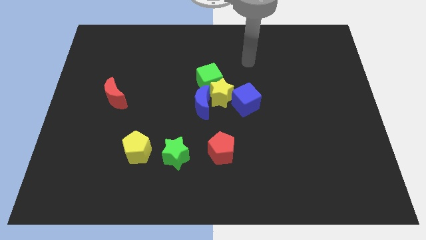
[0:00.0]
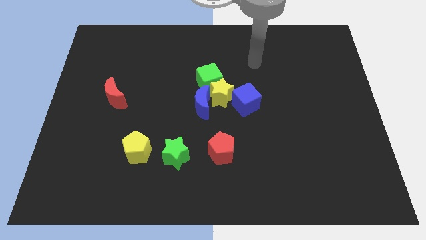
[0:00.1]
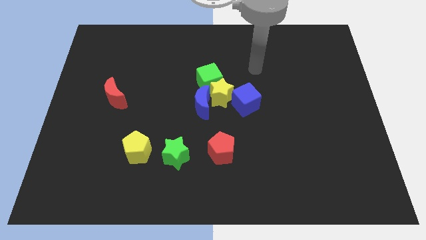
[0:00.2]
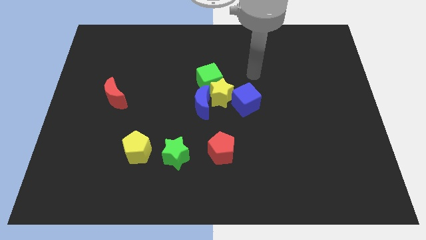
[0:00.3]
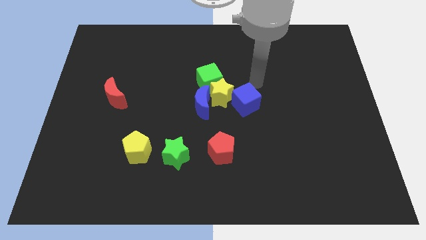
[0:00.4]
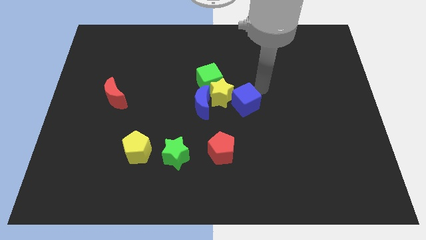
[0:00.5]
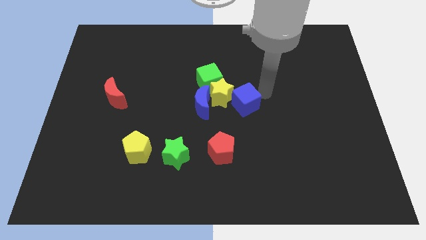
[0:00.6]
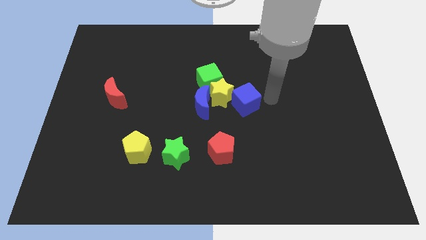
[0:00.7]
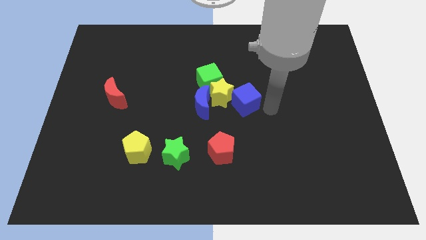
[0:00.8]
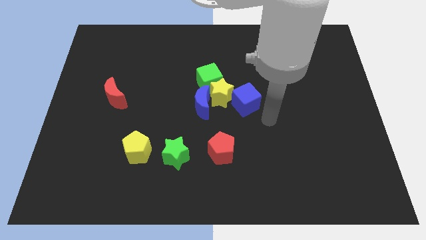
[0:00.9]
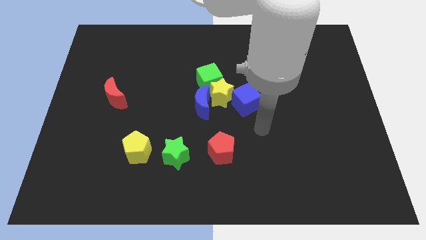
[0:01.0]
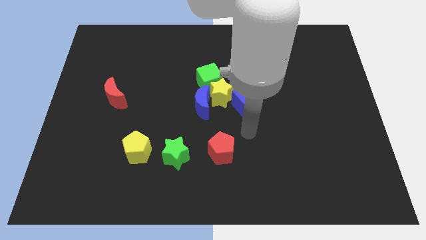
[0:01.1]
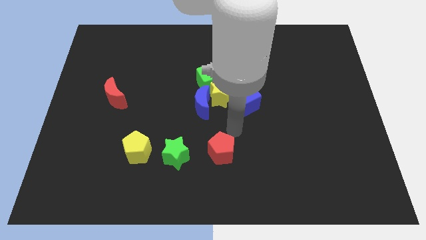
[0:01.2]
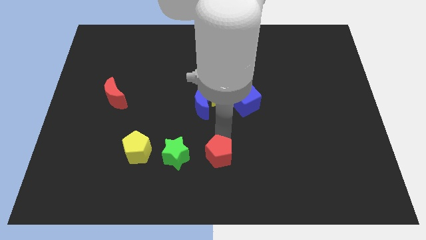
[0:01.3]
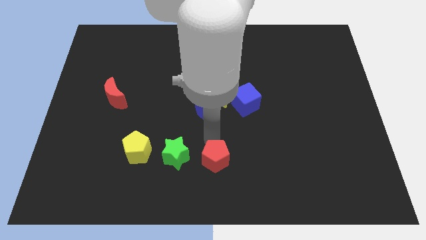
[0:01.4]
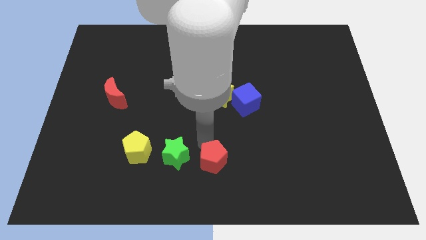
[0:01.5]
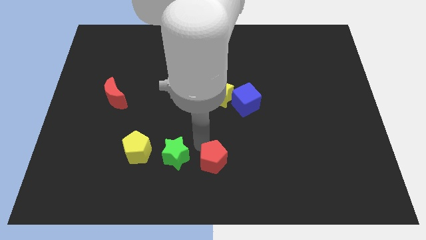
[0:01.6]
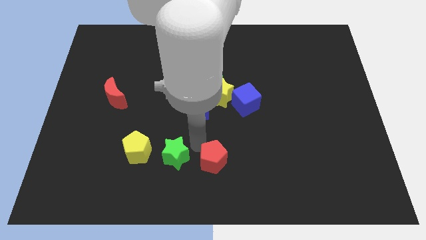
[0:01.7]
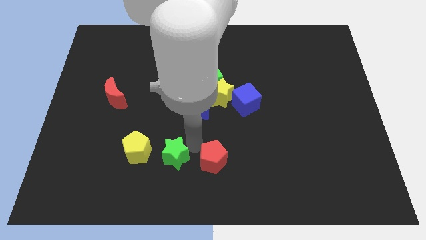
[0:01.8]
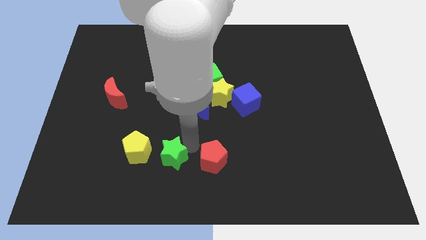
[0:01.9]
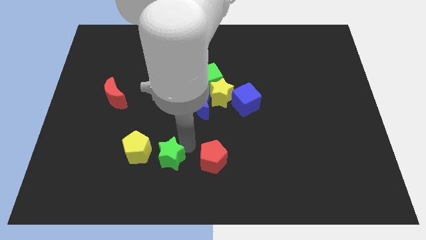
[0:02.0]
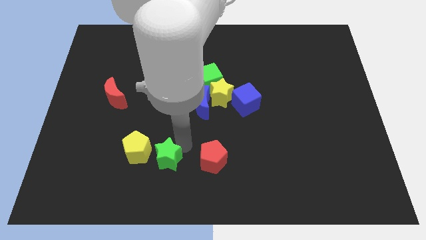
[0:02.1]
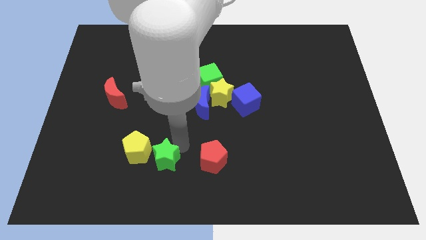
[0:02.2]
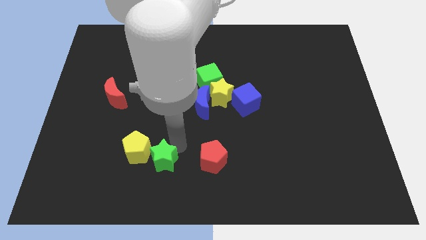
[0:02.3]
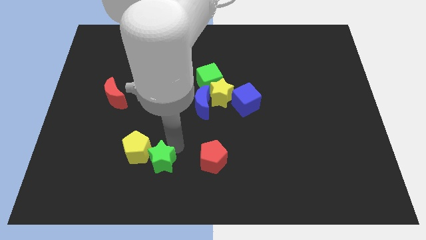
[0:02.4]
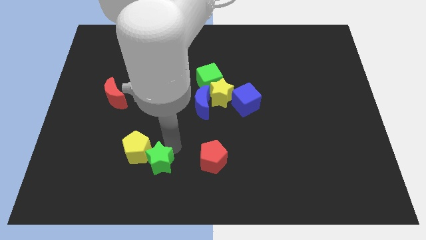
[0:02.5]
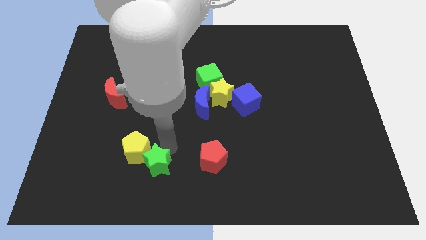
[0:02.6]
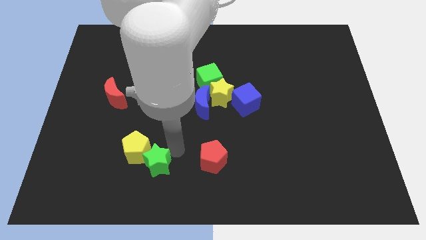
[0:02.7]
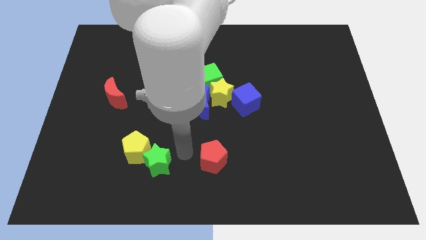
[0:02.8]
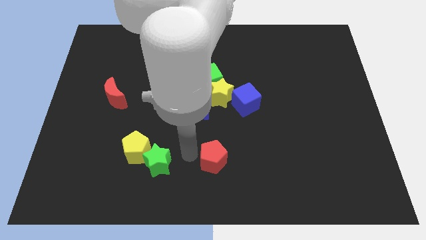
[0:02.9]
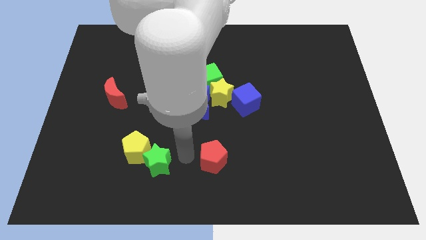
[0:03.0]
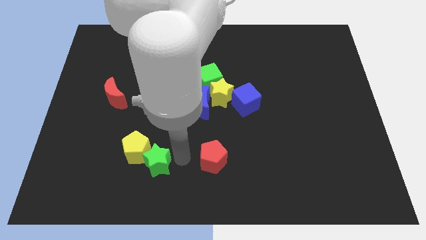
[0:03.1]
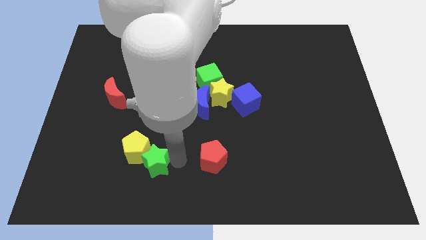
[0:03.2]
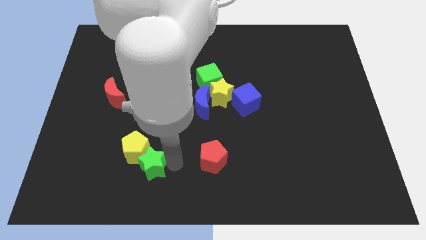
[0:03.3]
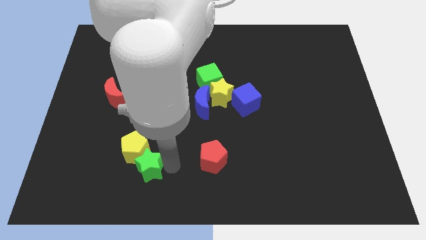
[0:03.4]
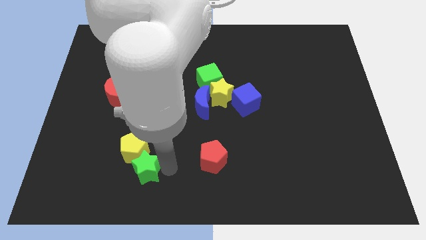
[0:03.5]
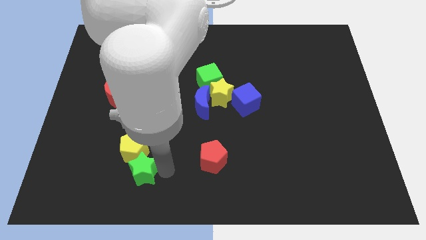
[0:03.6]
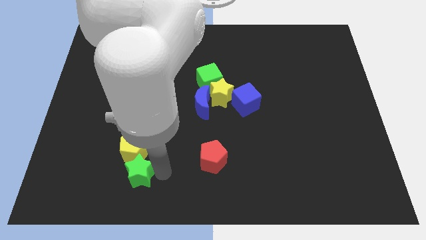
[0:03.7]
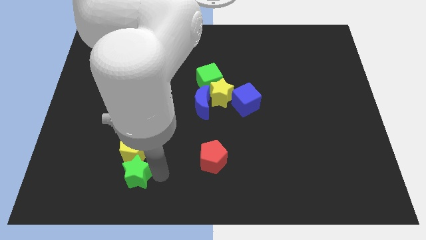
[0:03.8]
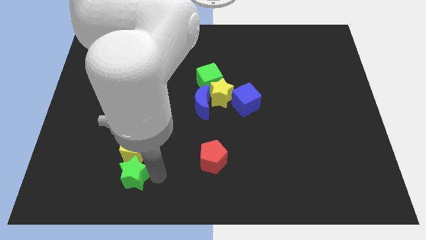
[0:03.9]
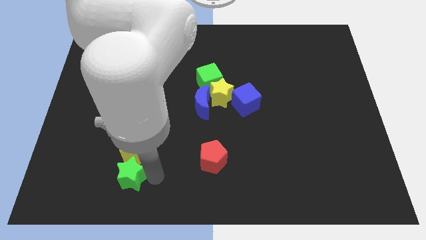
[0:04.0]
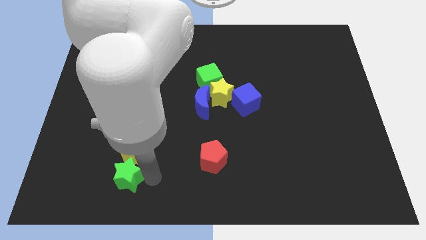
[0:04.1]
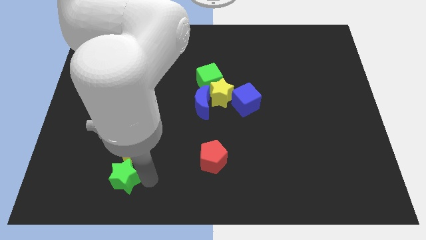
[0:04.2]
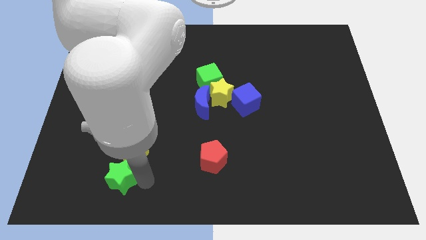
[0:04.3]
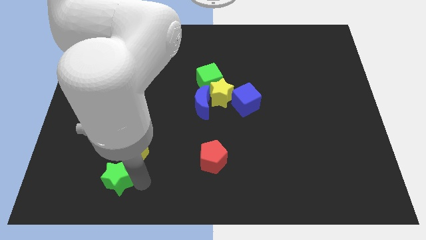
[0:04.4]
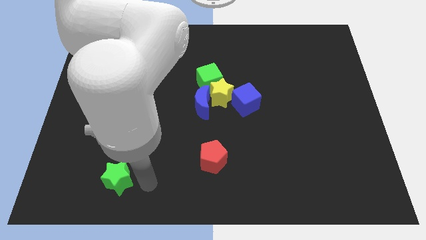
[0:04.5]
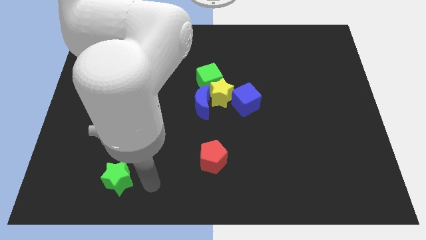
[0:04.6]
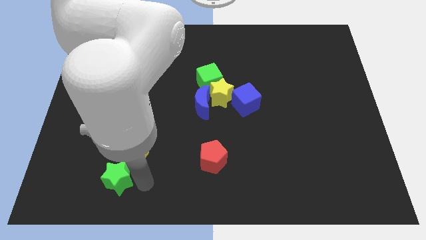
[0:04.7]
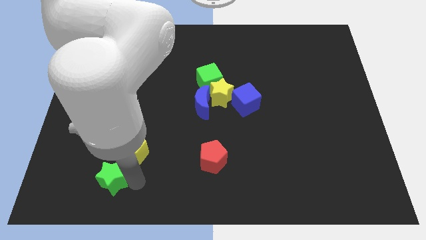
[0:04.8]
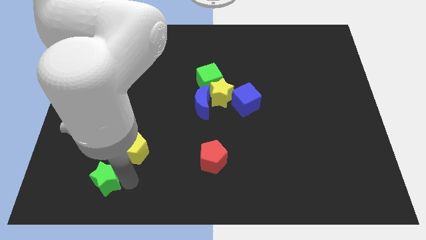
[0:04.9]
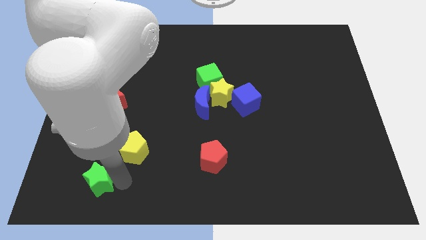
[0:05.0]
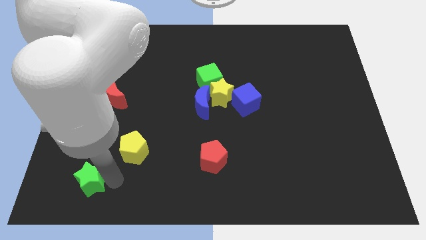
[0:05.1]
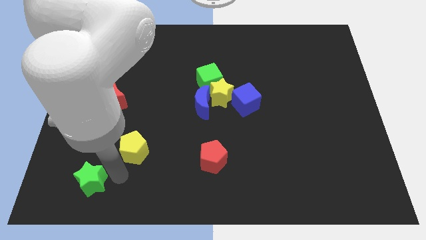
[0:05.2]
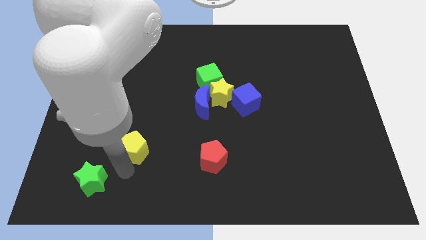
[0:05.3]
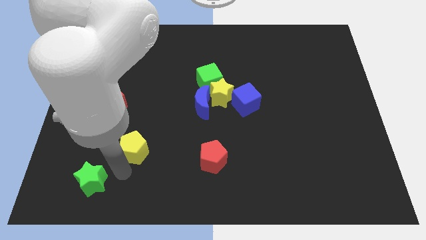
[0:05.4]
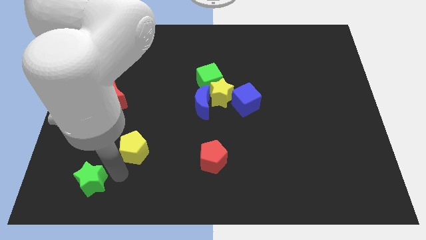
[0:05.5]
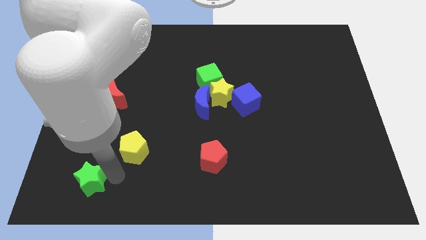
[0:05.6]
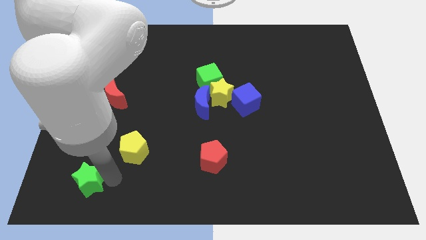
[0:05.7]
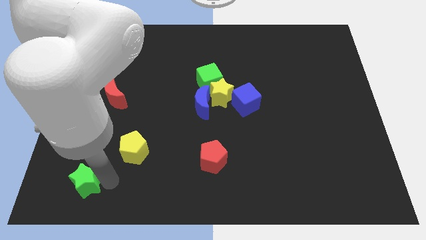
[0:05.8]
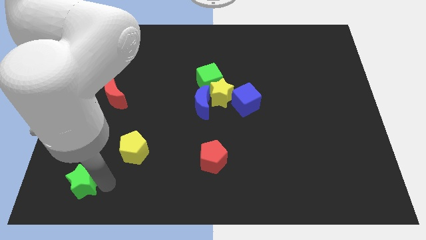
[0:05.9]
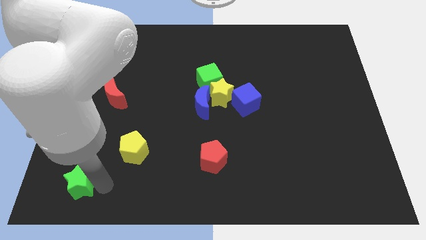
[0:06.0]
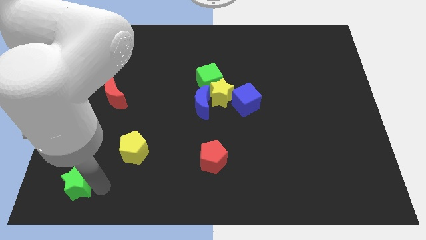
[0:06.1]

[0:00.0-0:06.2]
put the green star to the lower left corner

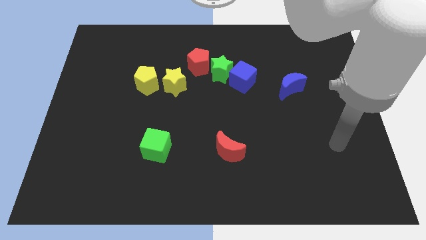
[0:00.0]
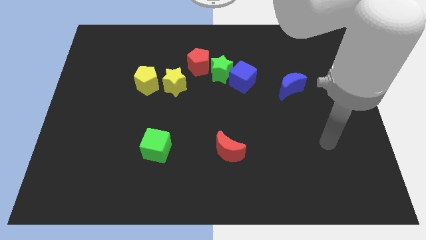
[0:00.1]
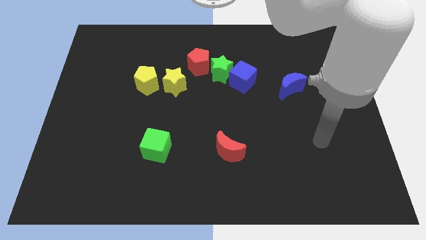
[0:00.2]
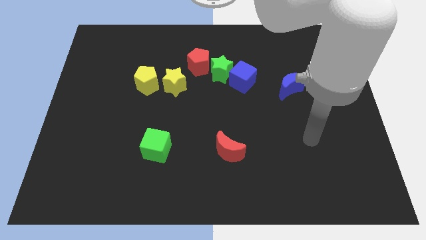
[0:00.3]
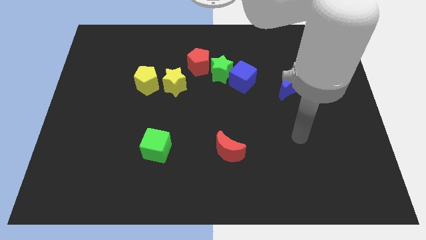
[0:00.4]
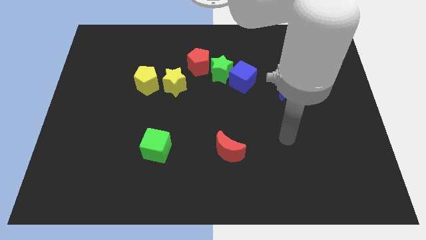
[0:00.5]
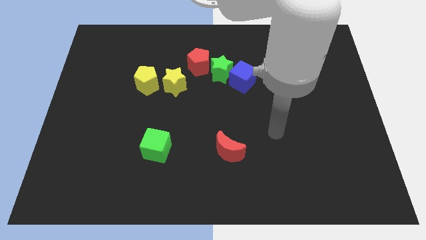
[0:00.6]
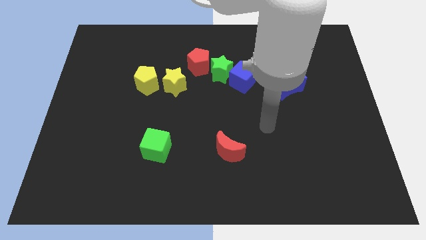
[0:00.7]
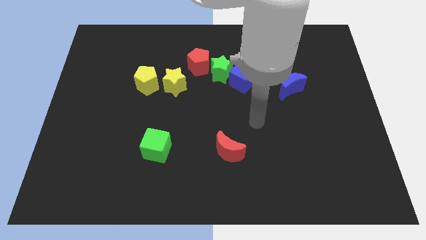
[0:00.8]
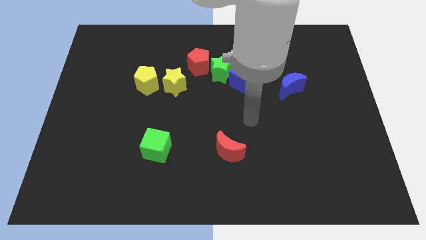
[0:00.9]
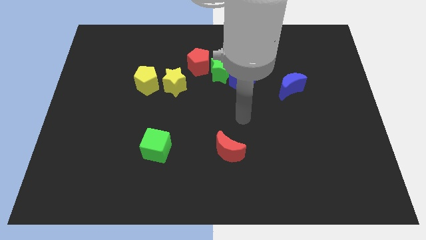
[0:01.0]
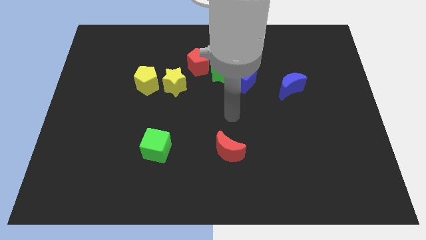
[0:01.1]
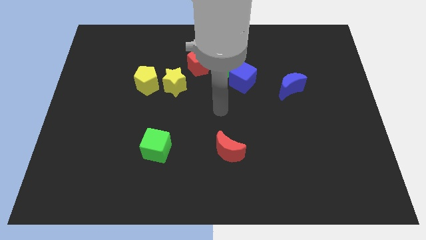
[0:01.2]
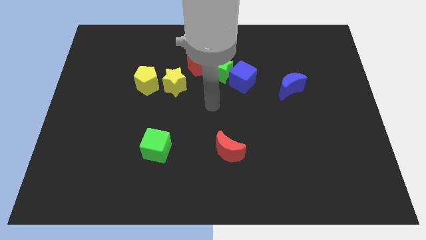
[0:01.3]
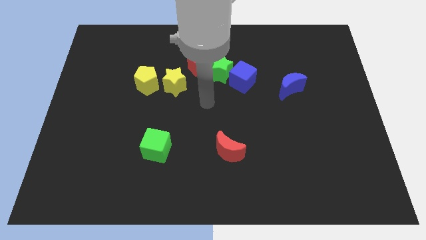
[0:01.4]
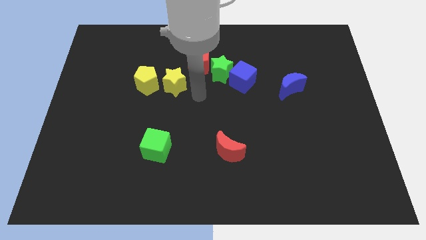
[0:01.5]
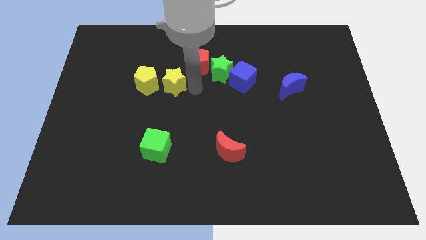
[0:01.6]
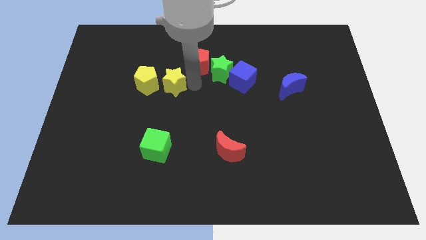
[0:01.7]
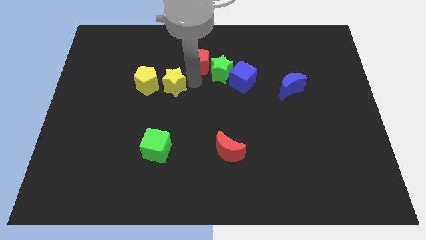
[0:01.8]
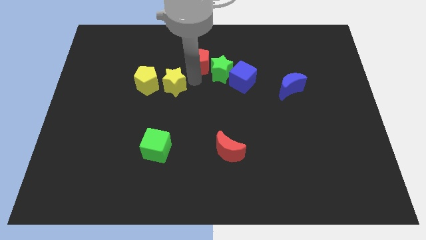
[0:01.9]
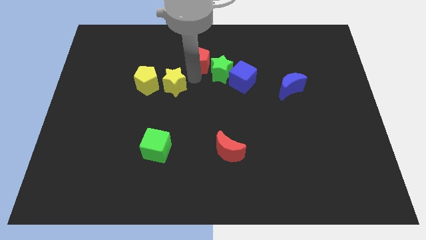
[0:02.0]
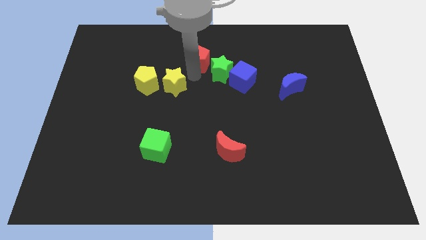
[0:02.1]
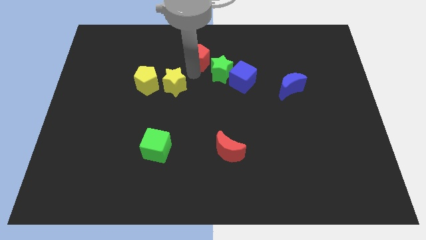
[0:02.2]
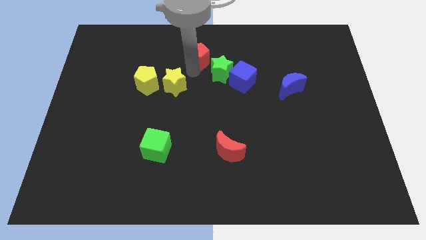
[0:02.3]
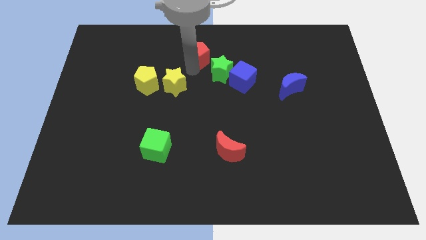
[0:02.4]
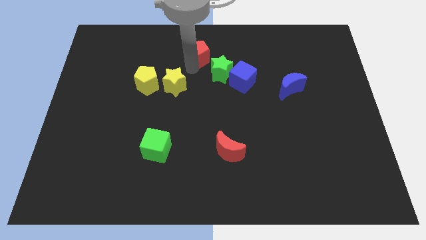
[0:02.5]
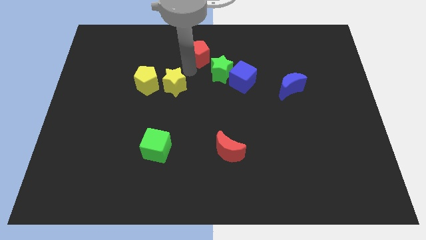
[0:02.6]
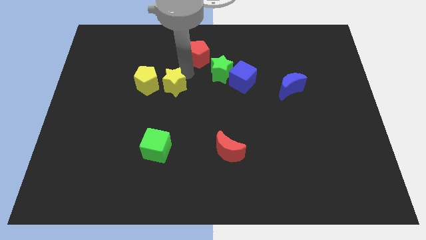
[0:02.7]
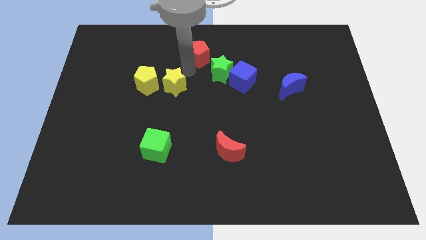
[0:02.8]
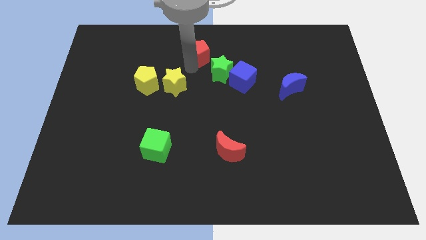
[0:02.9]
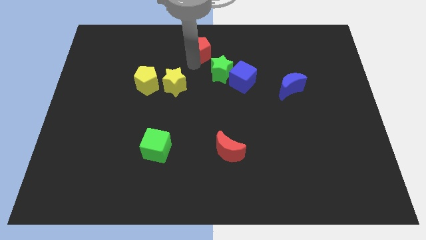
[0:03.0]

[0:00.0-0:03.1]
put the red pentagon to the top side
